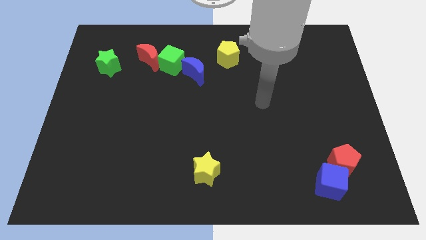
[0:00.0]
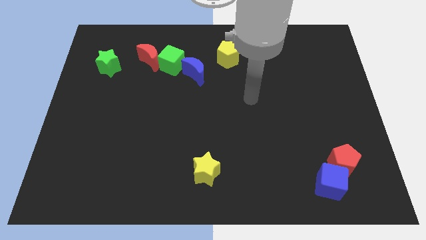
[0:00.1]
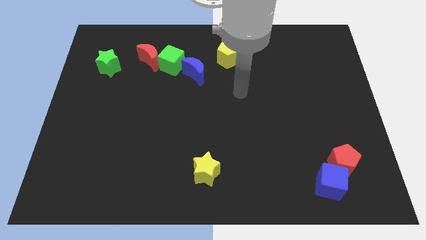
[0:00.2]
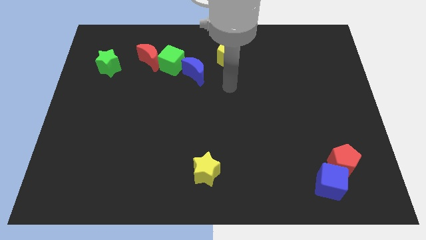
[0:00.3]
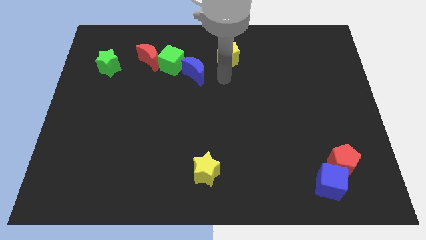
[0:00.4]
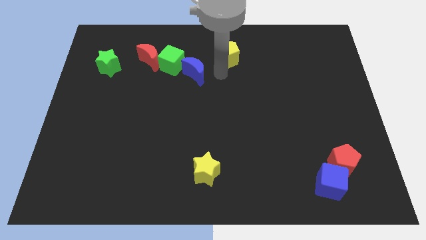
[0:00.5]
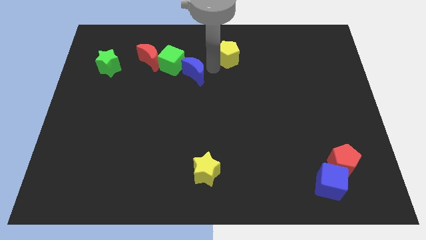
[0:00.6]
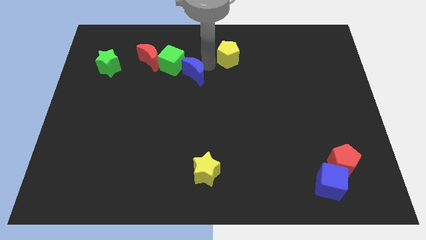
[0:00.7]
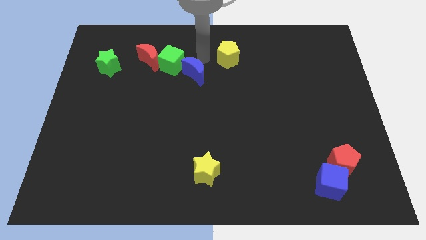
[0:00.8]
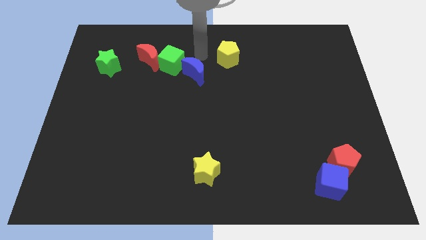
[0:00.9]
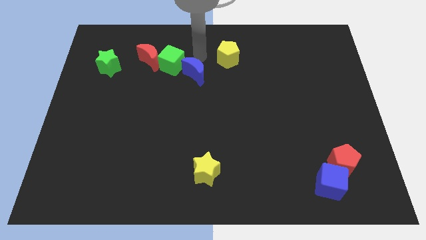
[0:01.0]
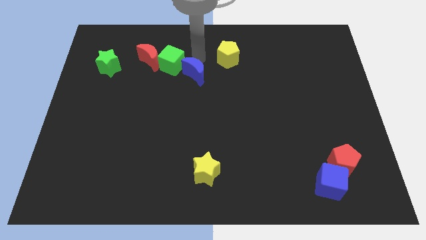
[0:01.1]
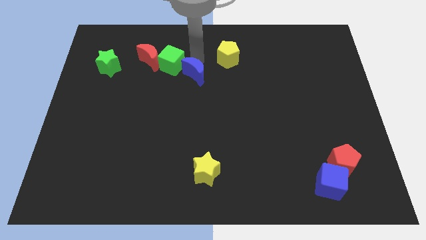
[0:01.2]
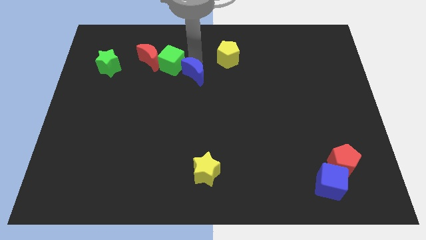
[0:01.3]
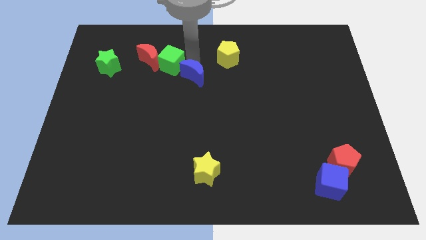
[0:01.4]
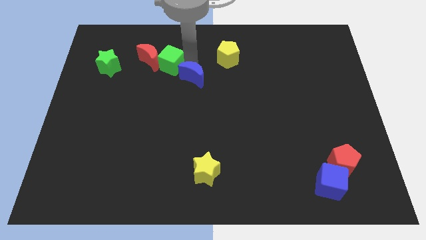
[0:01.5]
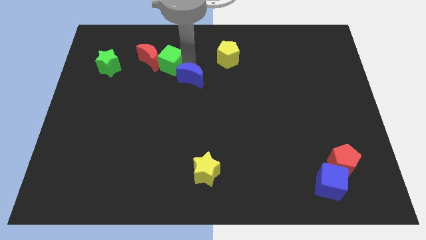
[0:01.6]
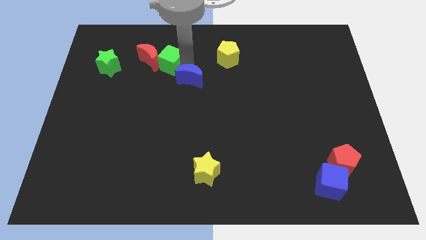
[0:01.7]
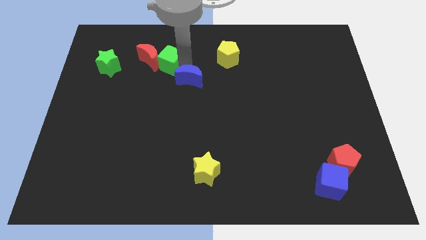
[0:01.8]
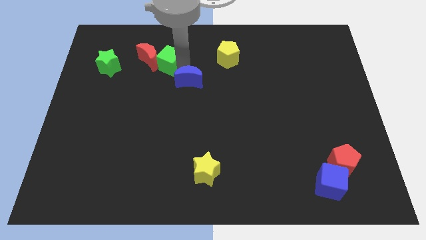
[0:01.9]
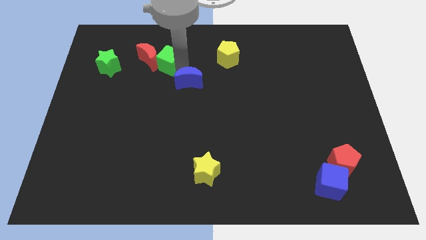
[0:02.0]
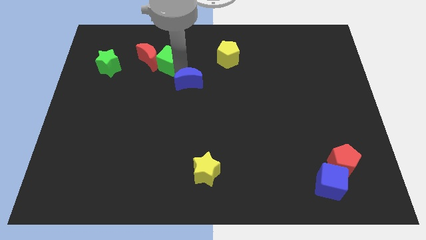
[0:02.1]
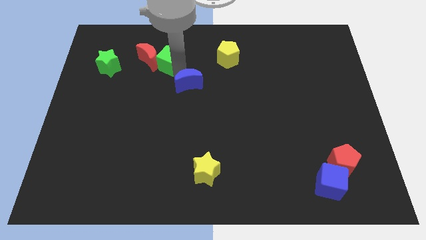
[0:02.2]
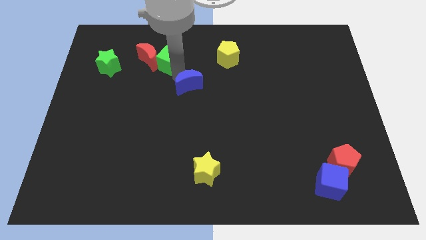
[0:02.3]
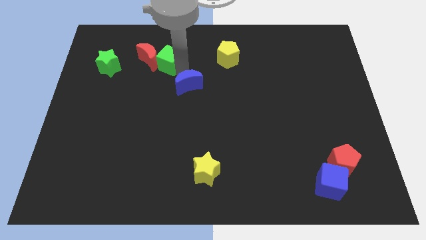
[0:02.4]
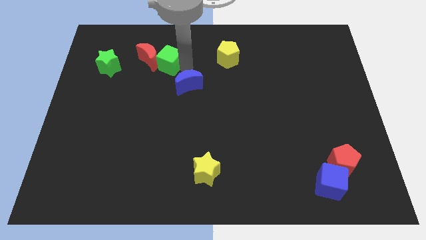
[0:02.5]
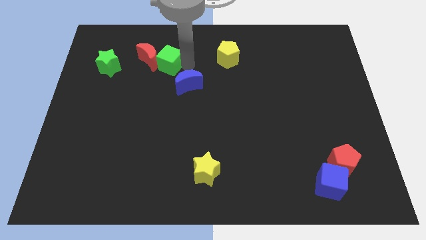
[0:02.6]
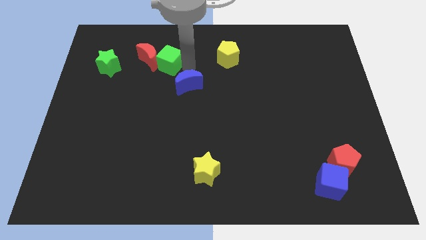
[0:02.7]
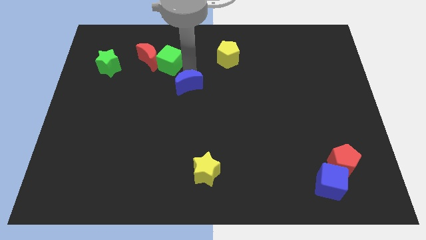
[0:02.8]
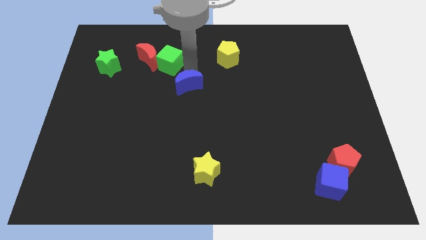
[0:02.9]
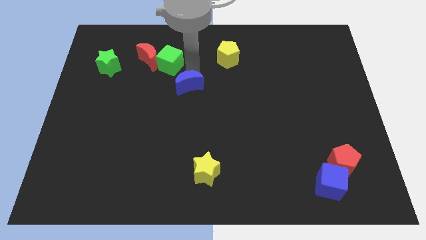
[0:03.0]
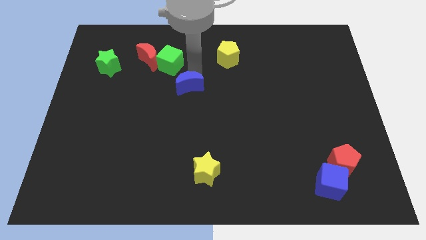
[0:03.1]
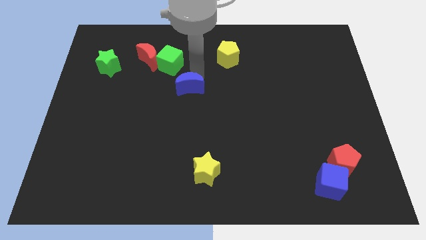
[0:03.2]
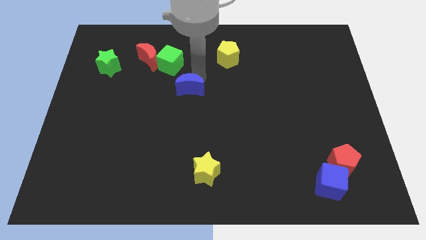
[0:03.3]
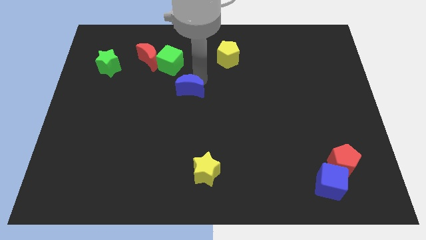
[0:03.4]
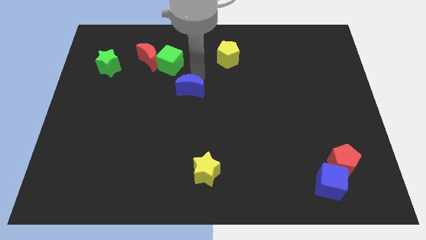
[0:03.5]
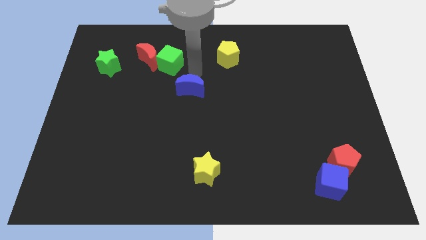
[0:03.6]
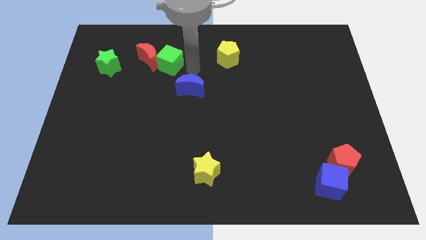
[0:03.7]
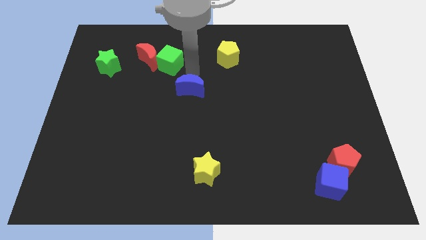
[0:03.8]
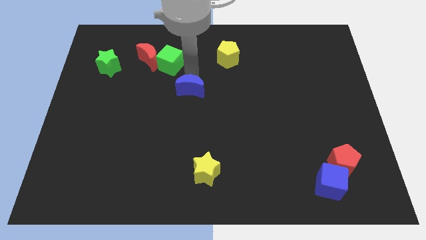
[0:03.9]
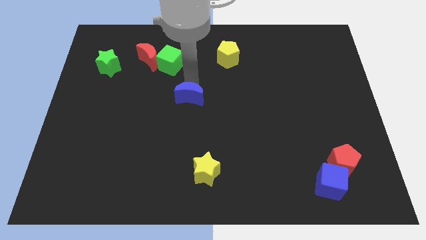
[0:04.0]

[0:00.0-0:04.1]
slightly slide the blue moon downwards

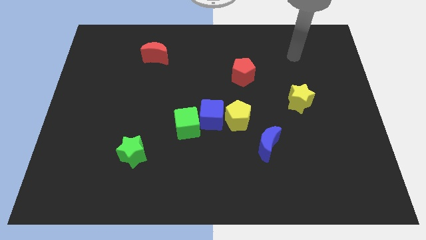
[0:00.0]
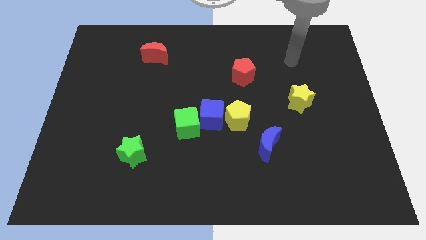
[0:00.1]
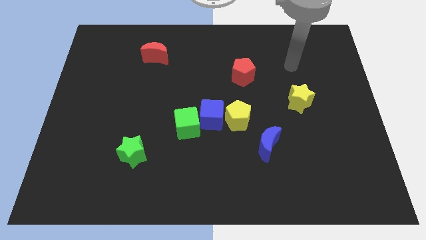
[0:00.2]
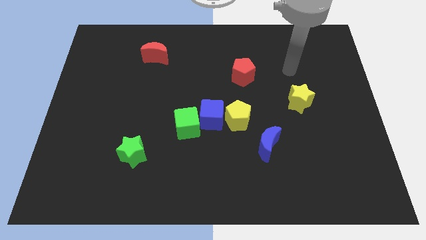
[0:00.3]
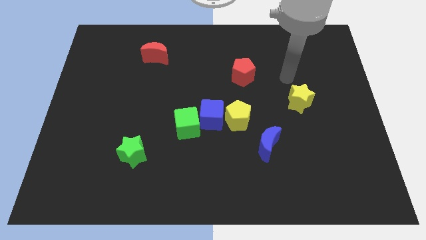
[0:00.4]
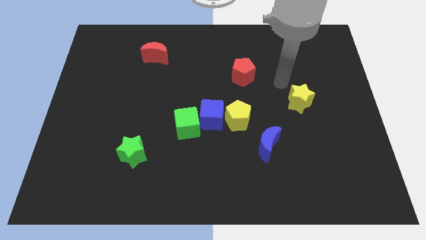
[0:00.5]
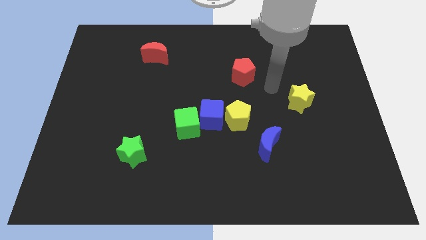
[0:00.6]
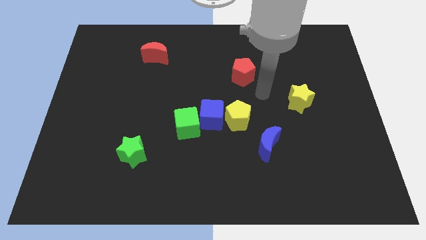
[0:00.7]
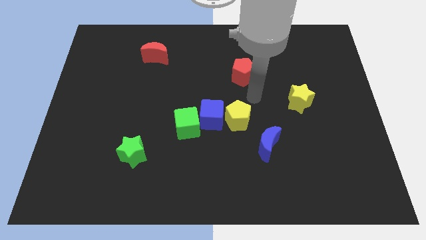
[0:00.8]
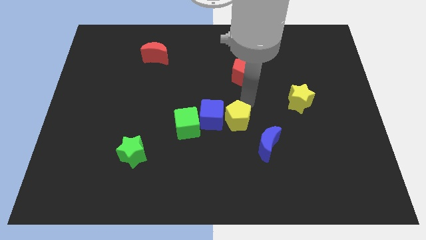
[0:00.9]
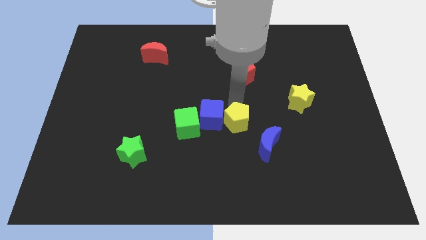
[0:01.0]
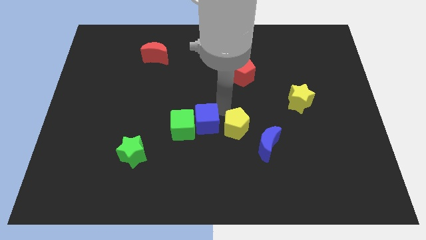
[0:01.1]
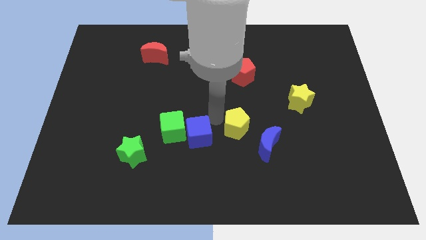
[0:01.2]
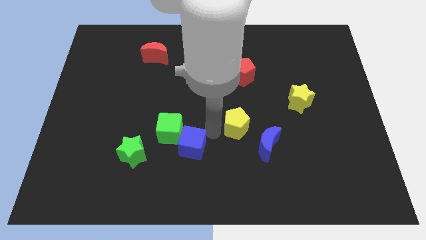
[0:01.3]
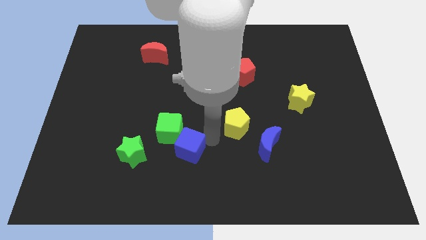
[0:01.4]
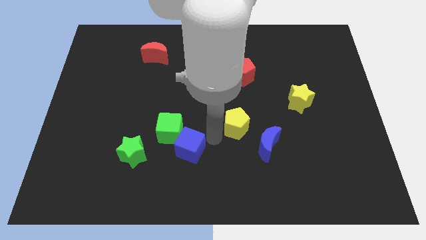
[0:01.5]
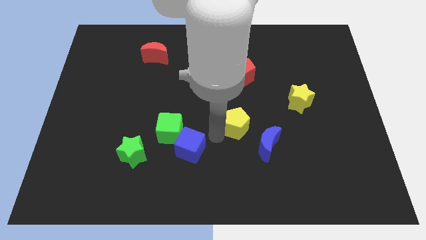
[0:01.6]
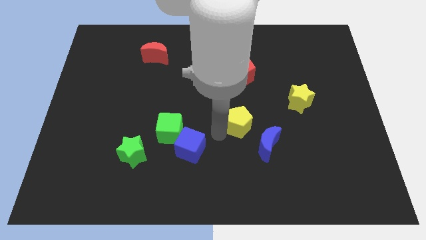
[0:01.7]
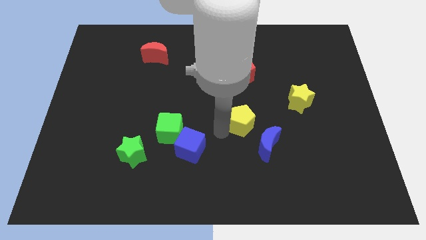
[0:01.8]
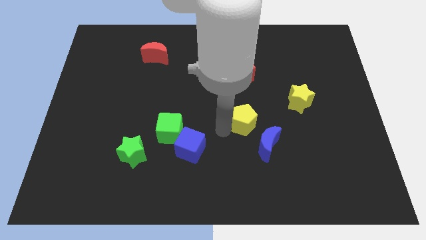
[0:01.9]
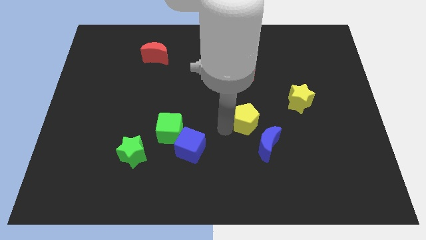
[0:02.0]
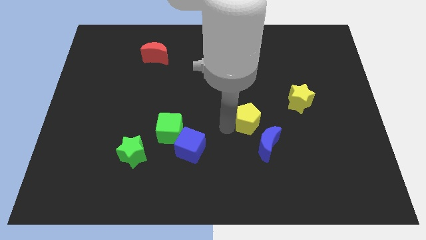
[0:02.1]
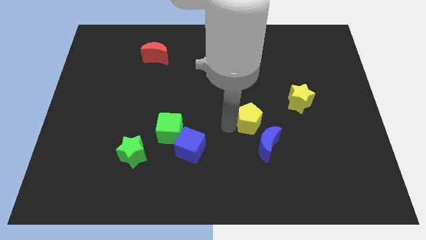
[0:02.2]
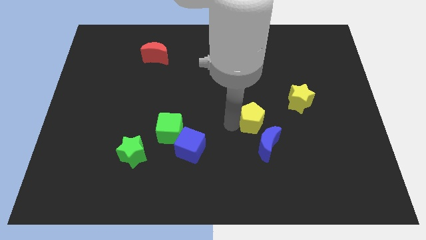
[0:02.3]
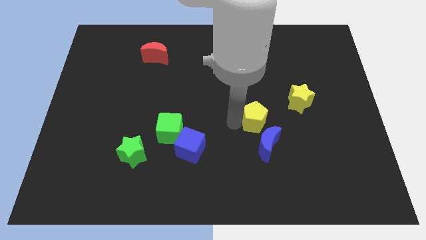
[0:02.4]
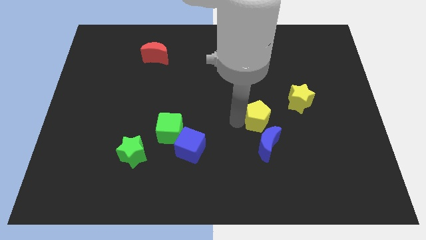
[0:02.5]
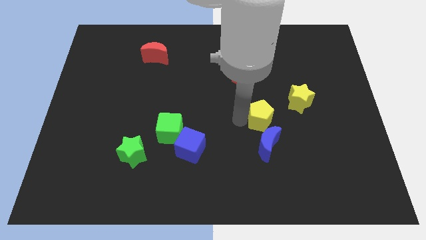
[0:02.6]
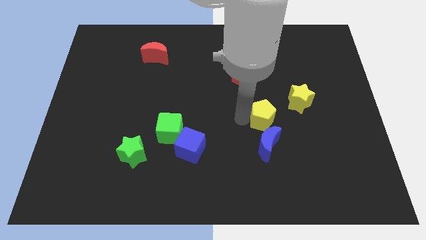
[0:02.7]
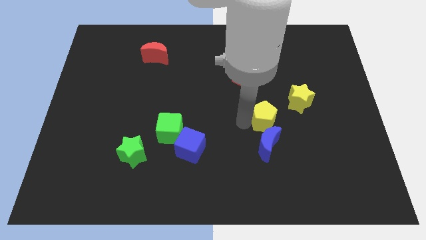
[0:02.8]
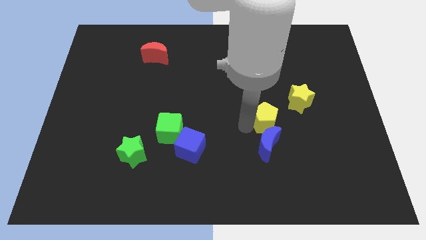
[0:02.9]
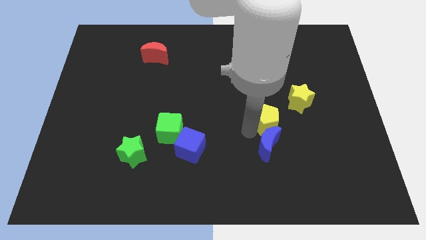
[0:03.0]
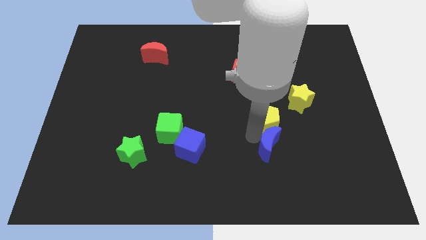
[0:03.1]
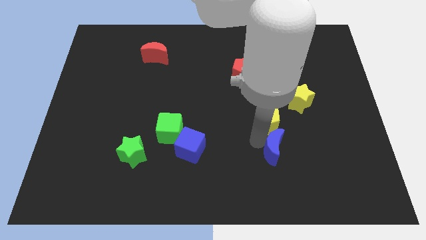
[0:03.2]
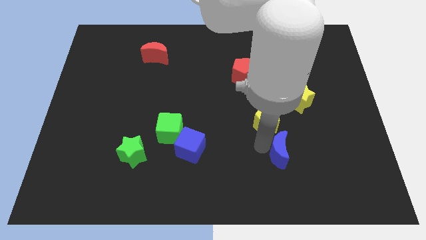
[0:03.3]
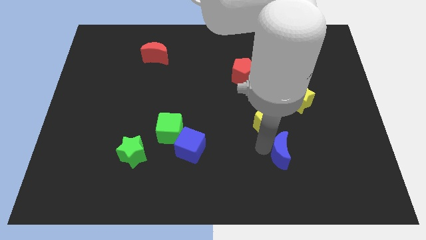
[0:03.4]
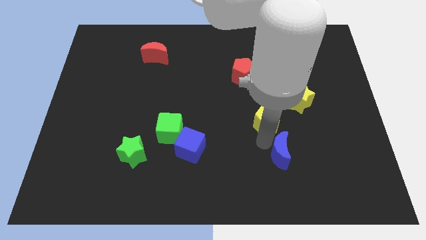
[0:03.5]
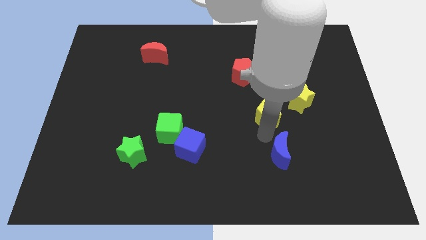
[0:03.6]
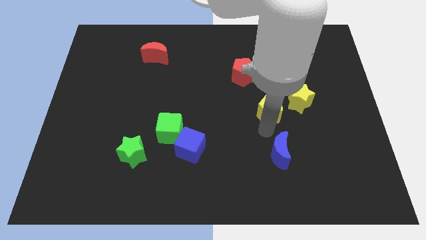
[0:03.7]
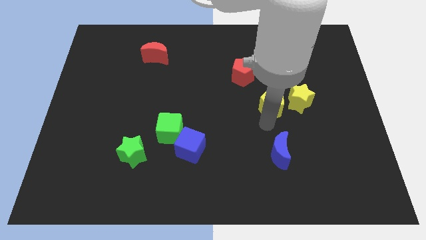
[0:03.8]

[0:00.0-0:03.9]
slide the yellow pentagon slightly up and to the right diagonally
